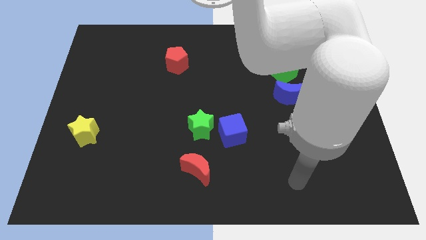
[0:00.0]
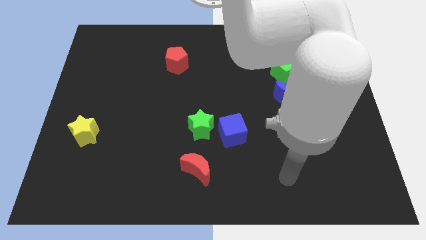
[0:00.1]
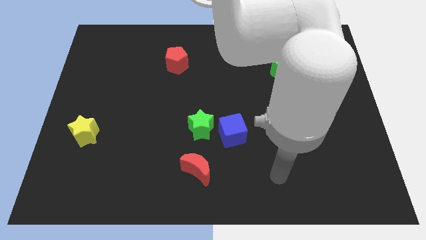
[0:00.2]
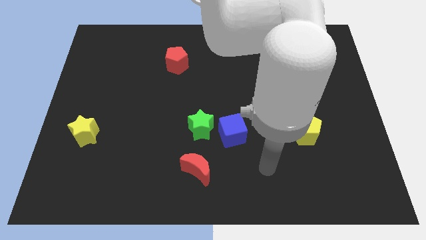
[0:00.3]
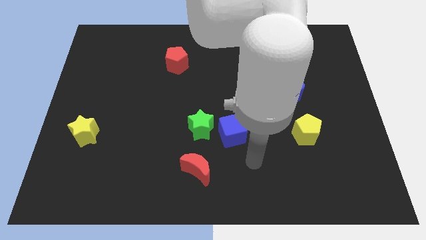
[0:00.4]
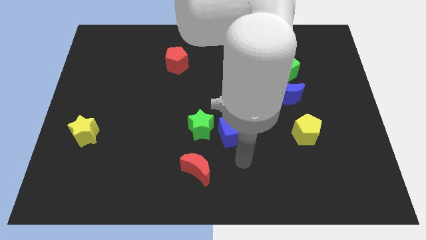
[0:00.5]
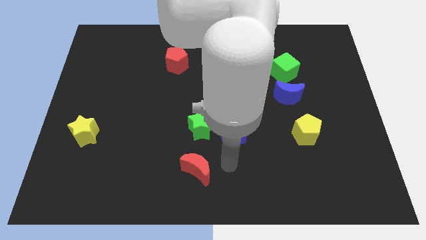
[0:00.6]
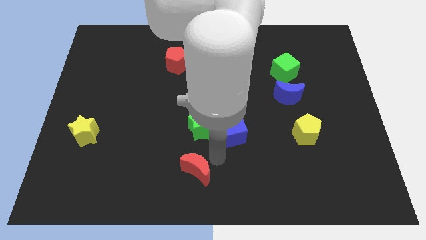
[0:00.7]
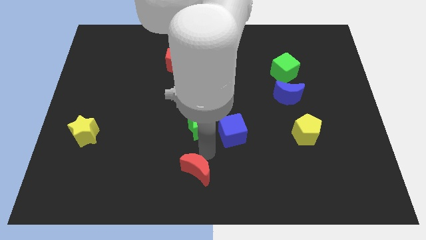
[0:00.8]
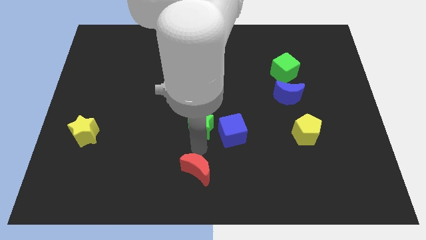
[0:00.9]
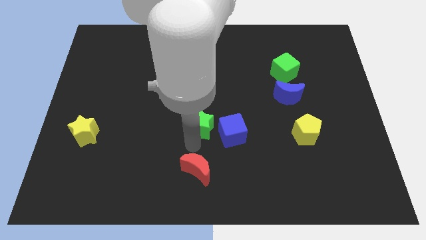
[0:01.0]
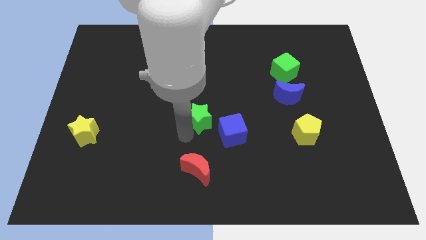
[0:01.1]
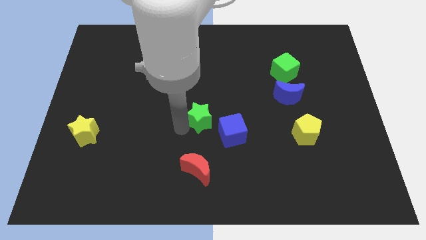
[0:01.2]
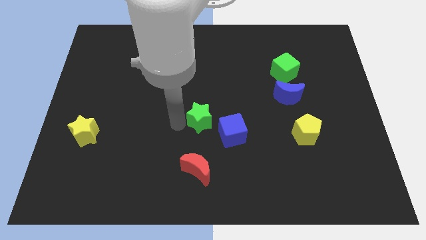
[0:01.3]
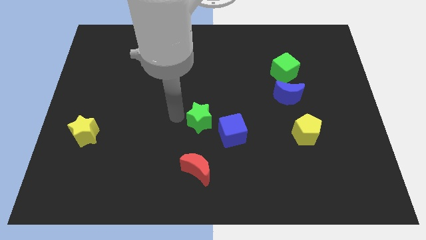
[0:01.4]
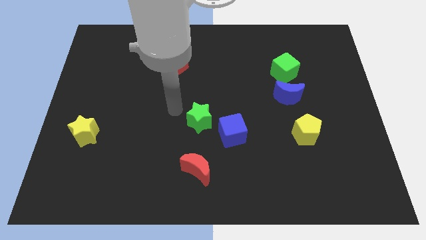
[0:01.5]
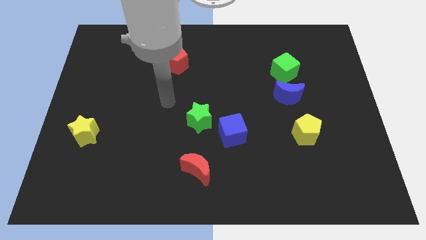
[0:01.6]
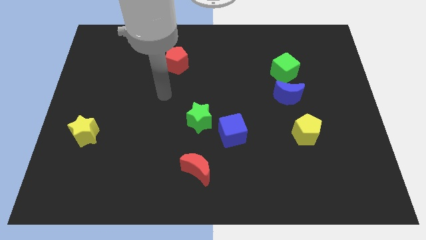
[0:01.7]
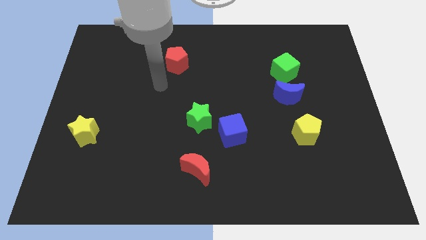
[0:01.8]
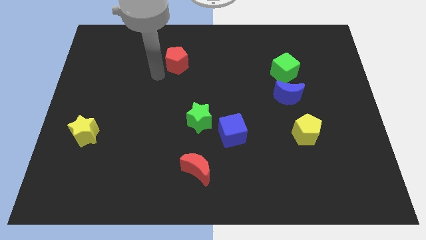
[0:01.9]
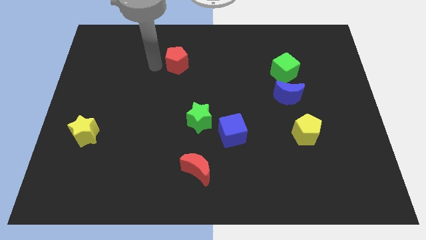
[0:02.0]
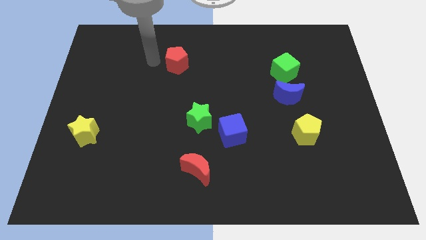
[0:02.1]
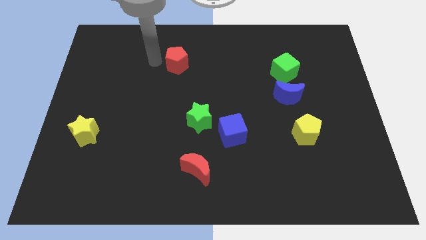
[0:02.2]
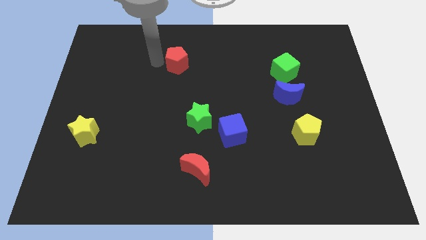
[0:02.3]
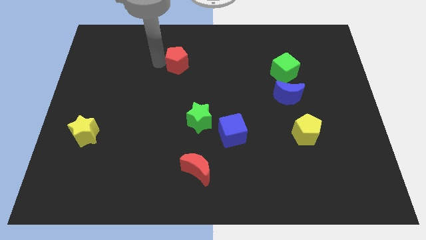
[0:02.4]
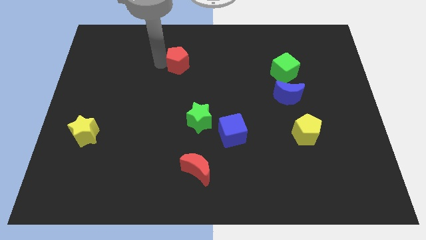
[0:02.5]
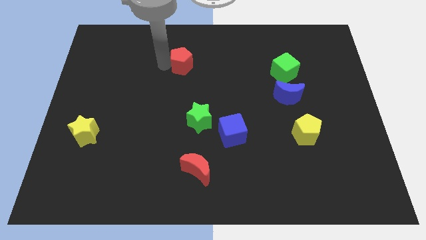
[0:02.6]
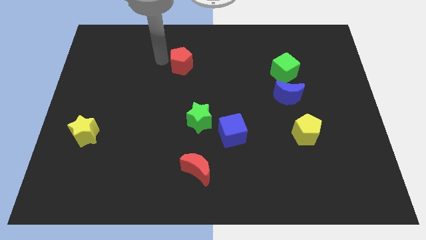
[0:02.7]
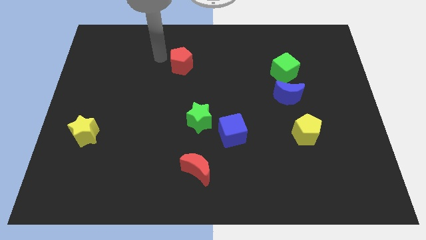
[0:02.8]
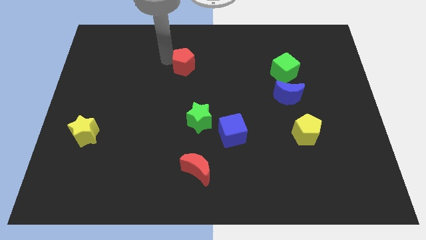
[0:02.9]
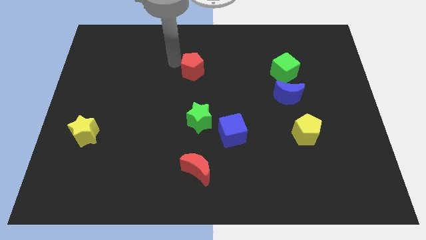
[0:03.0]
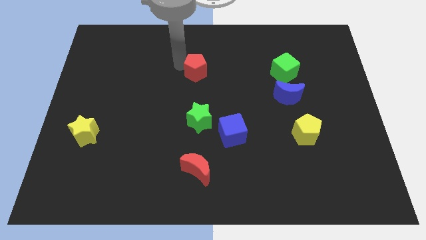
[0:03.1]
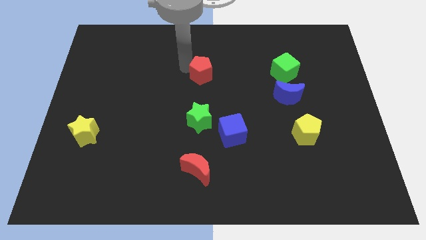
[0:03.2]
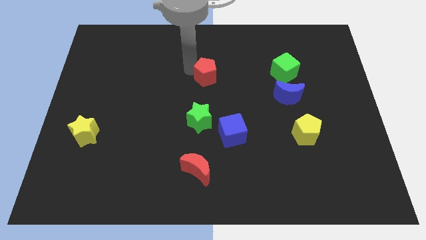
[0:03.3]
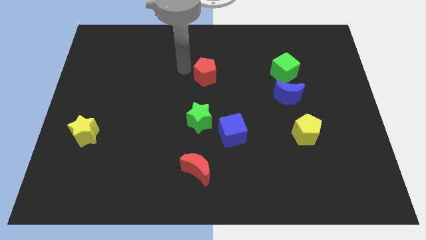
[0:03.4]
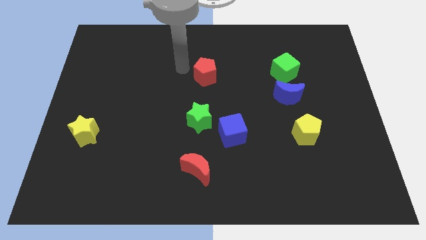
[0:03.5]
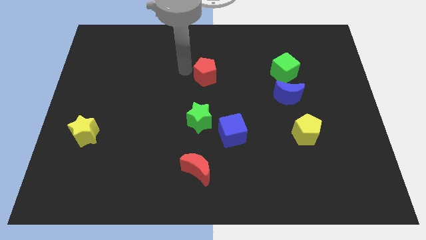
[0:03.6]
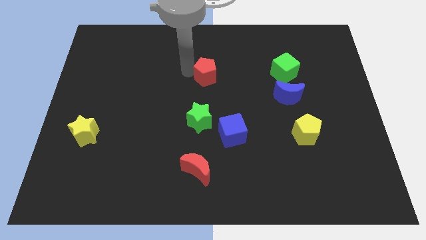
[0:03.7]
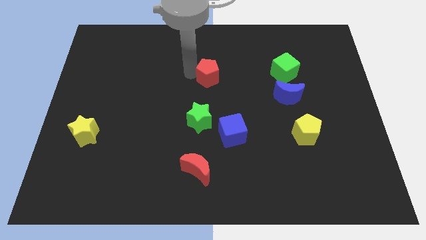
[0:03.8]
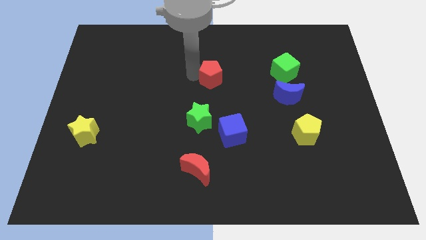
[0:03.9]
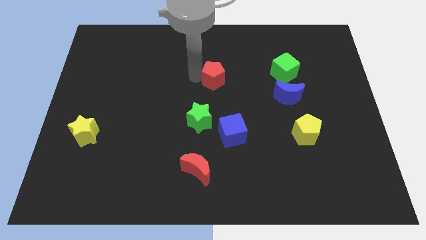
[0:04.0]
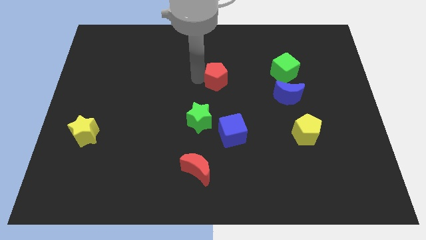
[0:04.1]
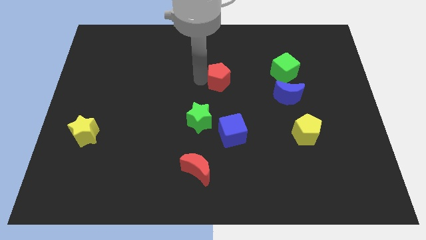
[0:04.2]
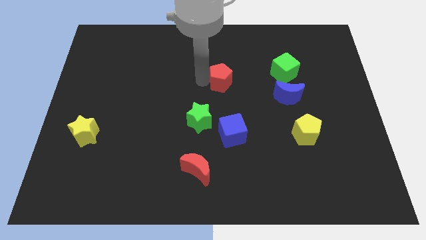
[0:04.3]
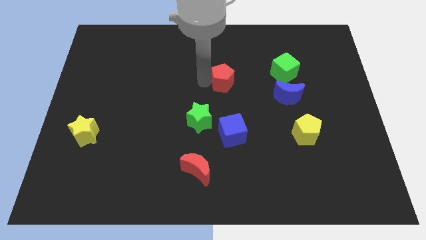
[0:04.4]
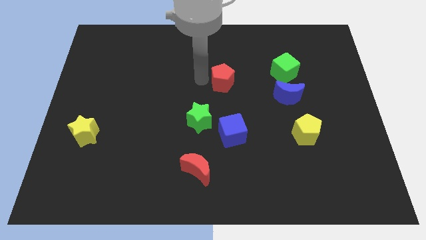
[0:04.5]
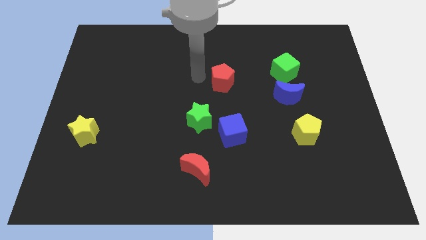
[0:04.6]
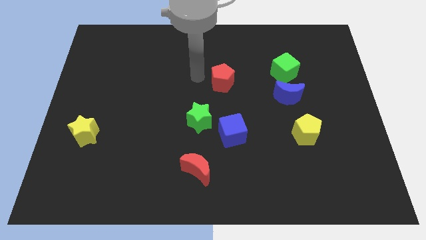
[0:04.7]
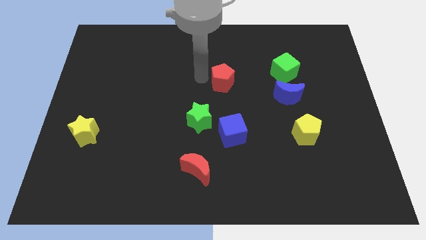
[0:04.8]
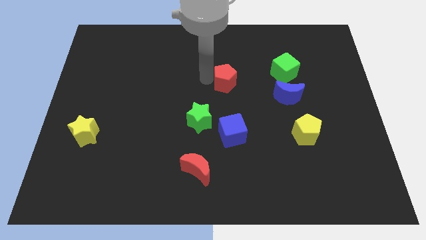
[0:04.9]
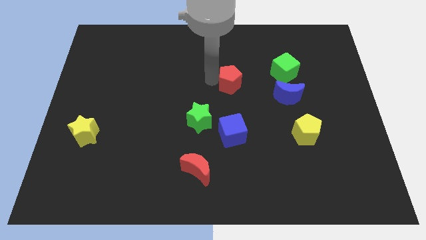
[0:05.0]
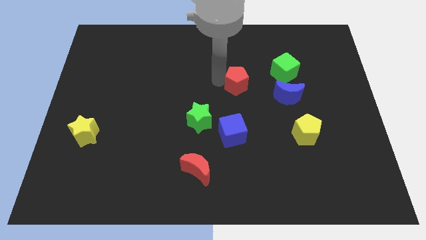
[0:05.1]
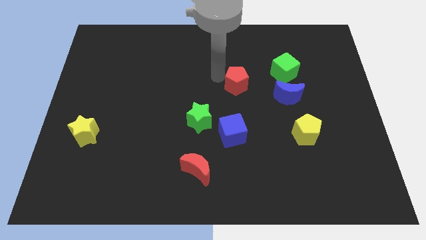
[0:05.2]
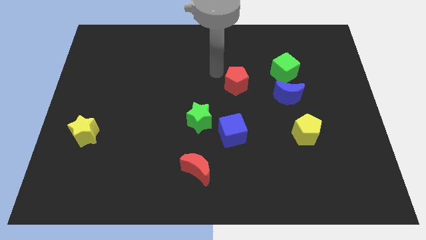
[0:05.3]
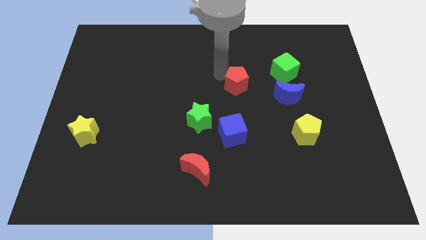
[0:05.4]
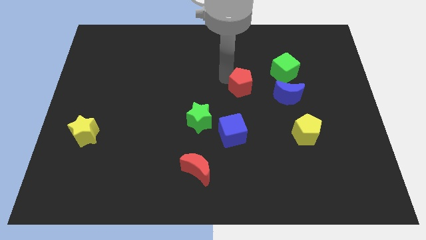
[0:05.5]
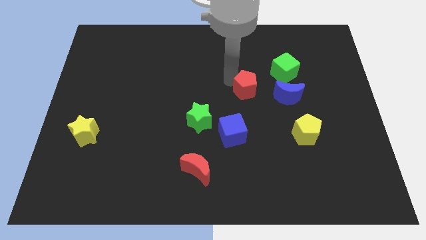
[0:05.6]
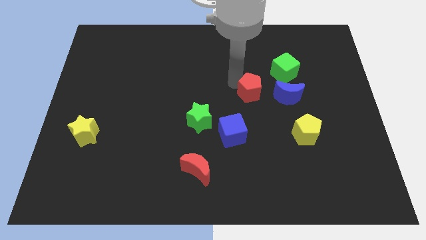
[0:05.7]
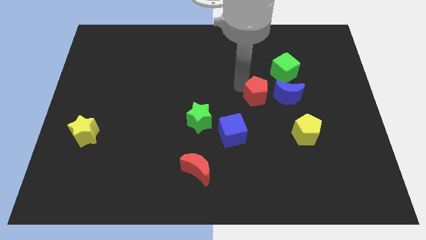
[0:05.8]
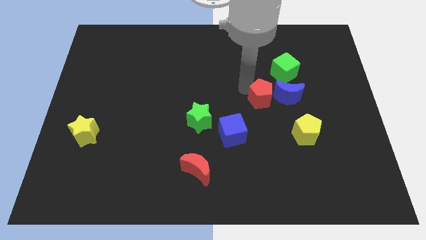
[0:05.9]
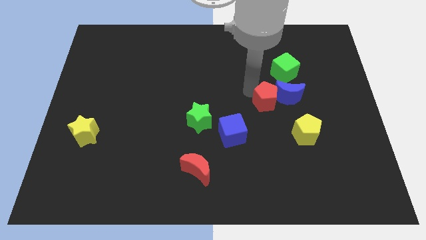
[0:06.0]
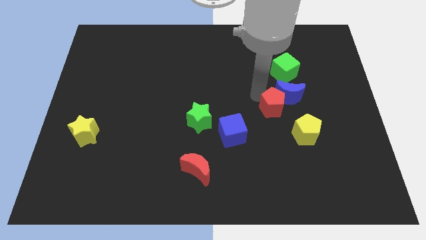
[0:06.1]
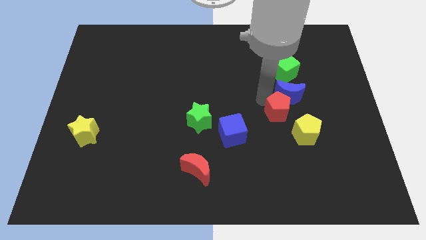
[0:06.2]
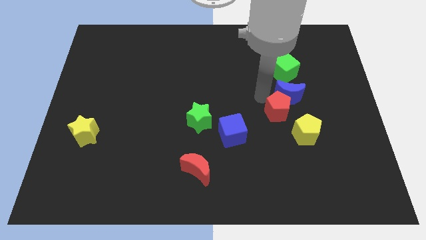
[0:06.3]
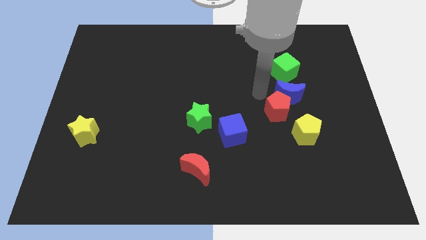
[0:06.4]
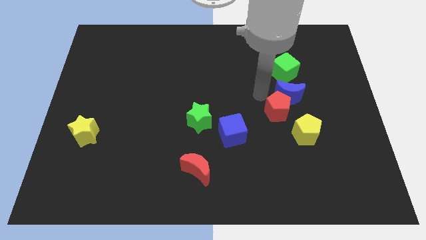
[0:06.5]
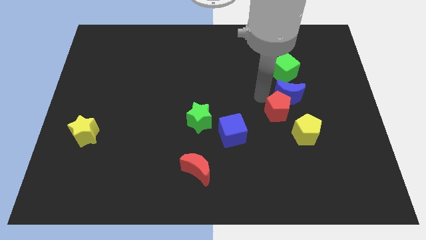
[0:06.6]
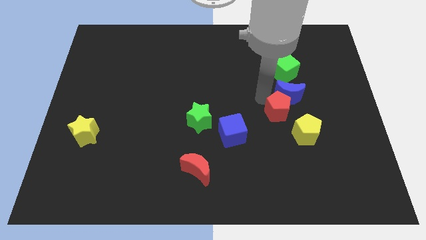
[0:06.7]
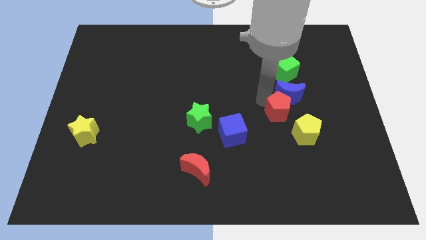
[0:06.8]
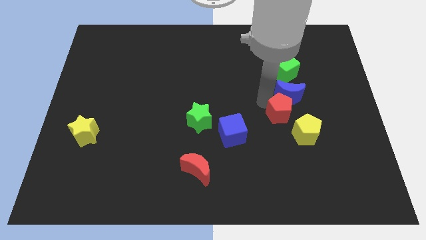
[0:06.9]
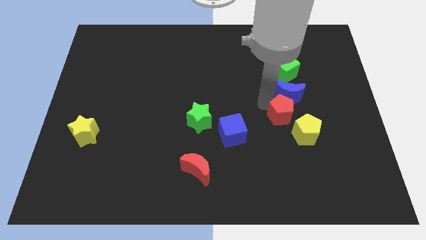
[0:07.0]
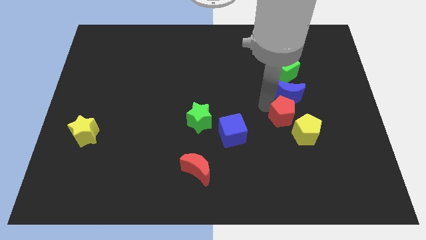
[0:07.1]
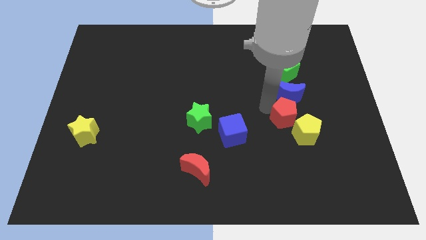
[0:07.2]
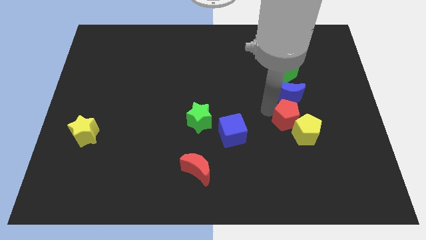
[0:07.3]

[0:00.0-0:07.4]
push the red pentagon to the yellow pentagon
